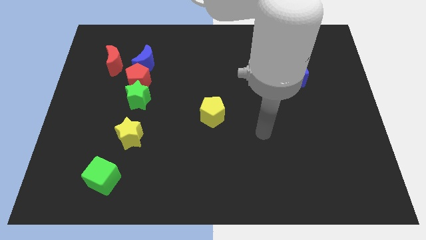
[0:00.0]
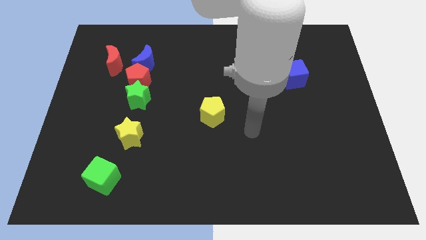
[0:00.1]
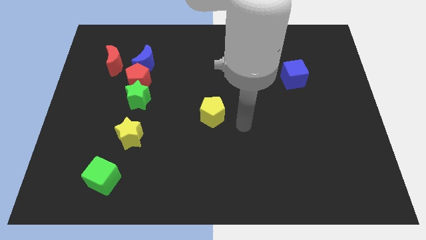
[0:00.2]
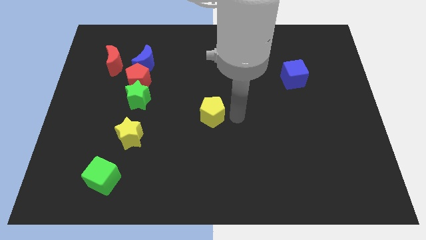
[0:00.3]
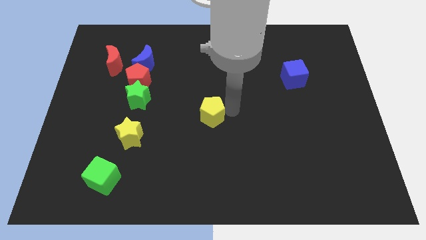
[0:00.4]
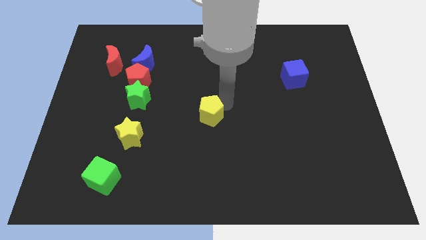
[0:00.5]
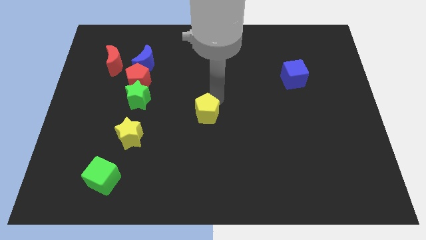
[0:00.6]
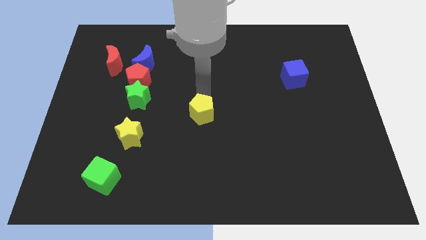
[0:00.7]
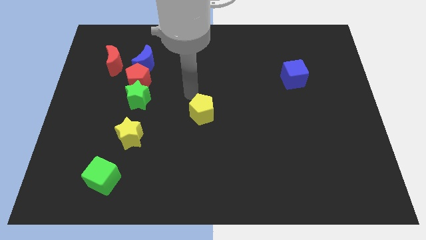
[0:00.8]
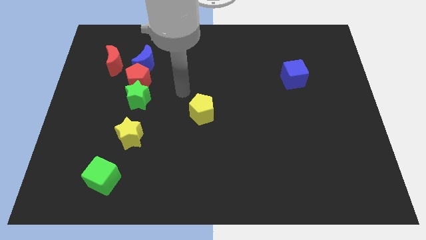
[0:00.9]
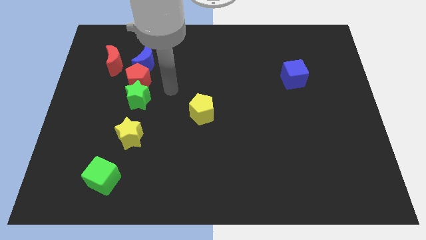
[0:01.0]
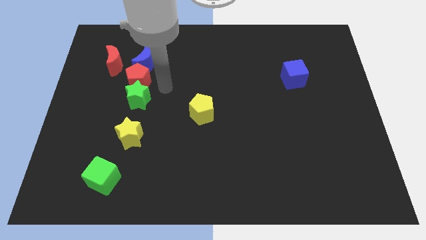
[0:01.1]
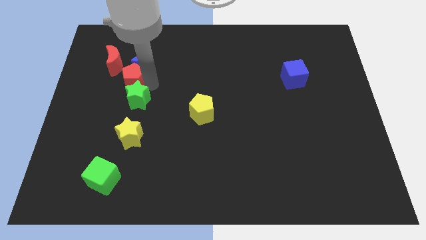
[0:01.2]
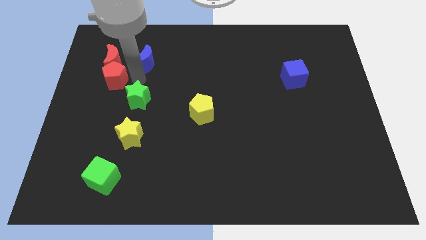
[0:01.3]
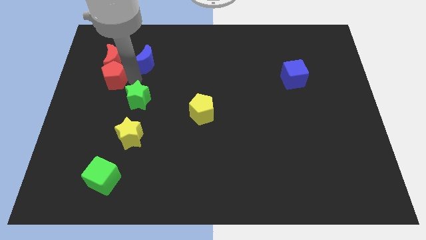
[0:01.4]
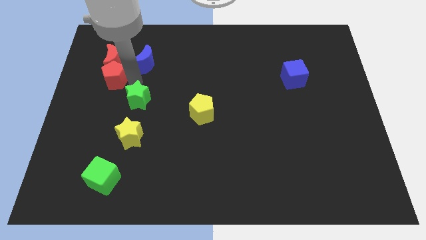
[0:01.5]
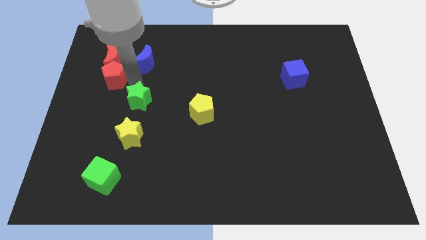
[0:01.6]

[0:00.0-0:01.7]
move the green star away from the red pentagon

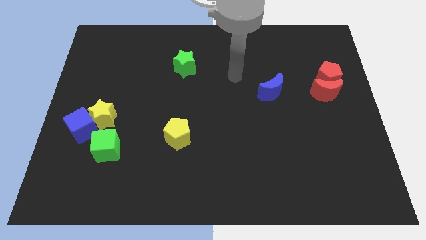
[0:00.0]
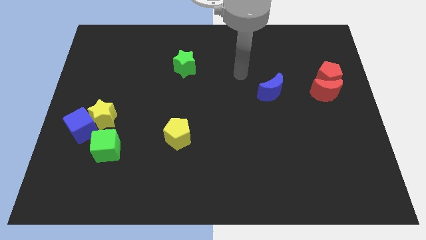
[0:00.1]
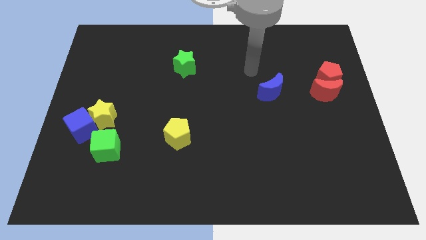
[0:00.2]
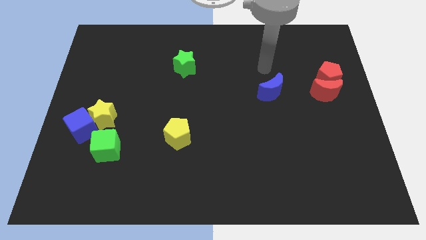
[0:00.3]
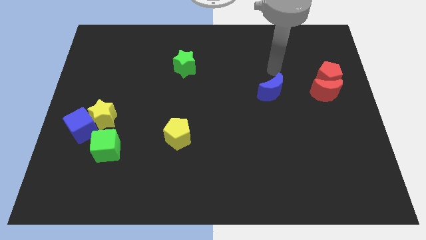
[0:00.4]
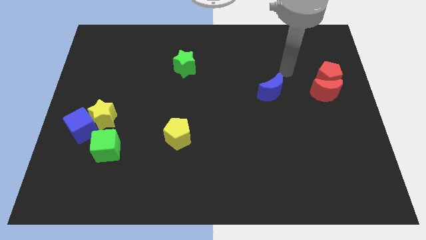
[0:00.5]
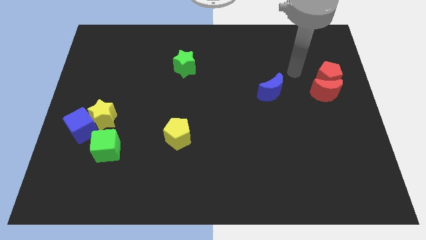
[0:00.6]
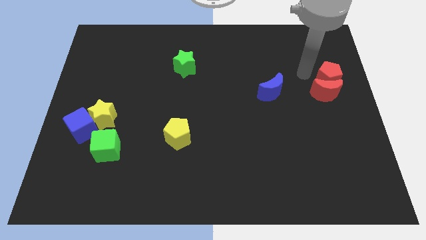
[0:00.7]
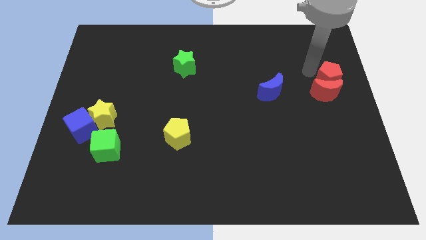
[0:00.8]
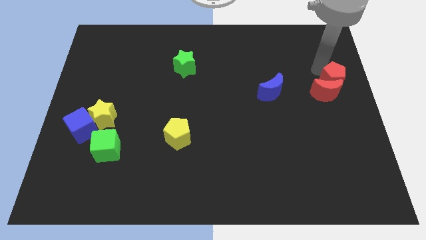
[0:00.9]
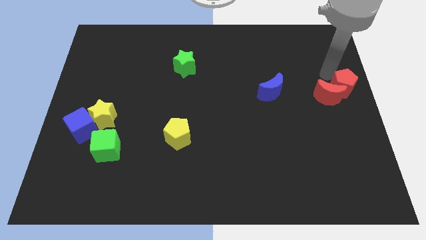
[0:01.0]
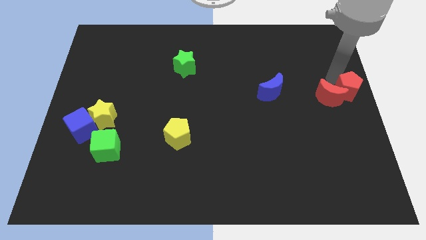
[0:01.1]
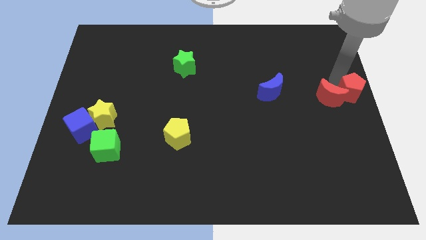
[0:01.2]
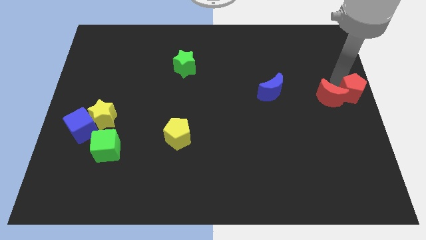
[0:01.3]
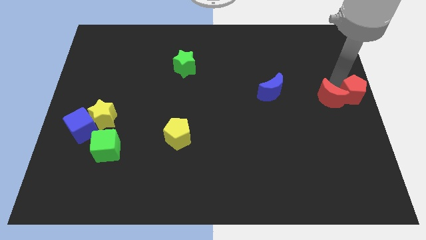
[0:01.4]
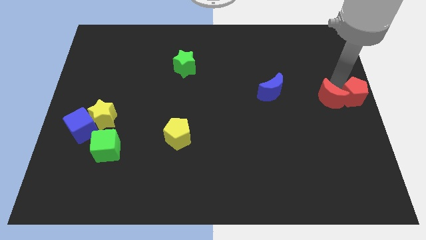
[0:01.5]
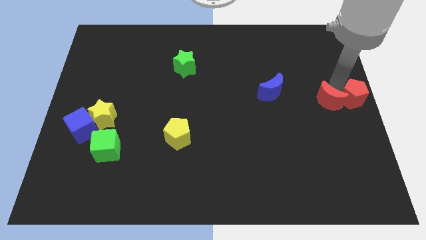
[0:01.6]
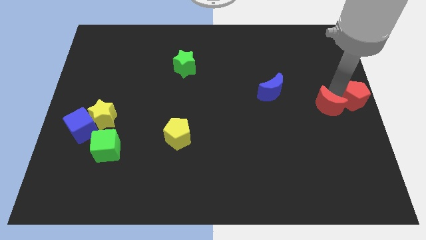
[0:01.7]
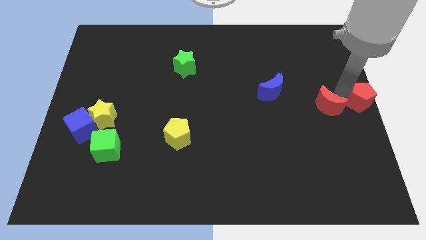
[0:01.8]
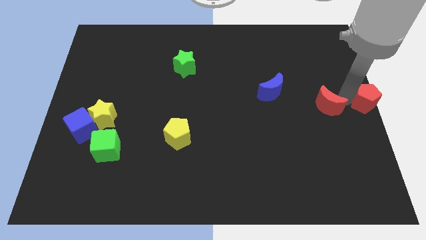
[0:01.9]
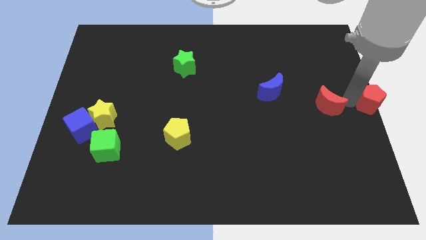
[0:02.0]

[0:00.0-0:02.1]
pull the red moon apart from the red pentagon

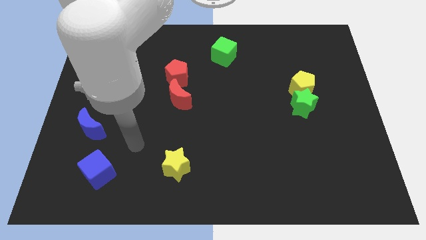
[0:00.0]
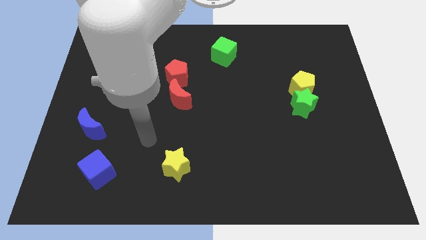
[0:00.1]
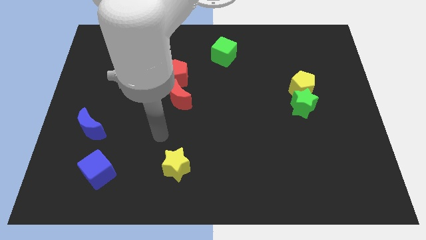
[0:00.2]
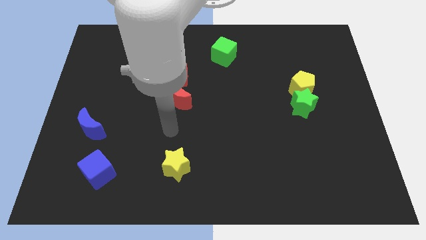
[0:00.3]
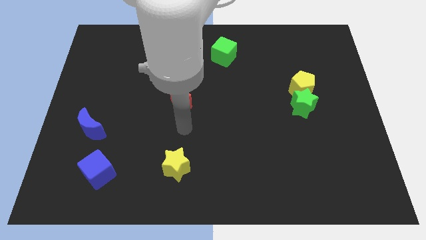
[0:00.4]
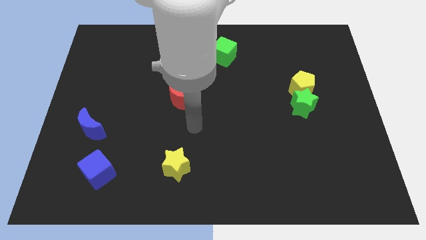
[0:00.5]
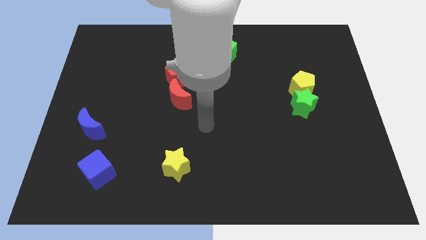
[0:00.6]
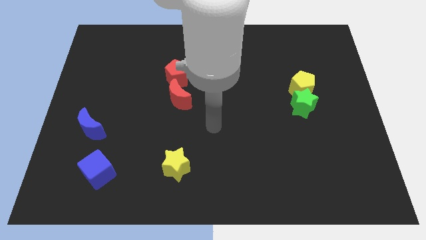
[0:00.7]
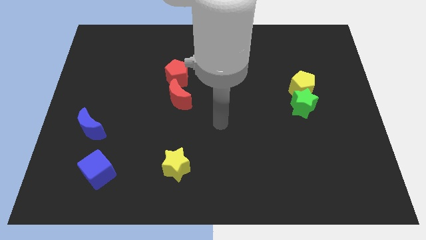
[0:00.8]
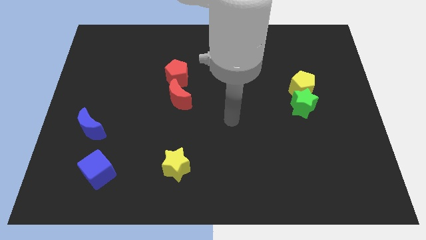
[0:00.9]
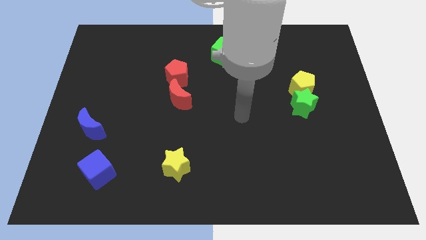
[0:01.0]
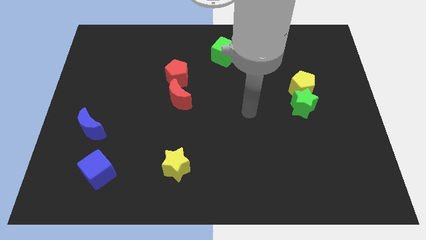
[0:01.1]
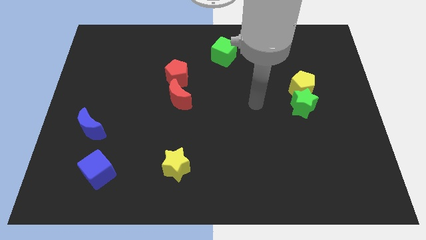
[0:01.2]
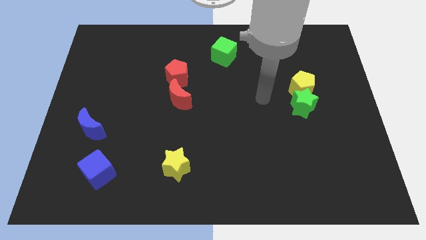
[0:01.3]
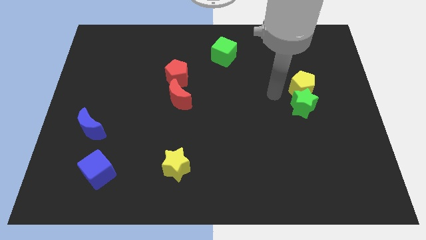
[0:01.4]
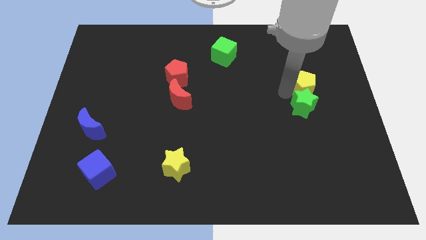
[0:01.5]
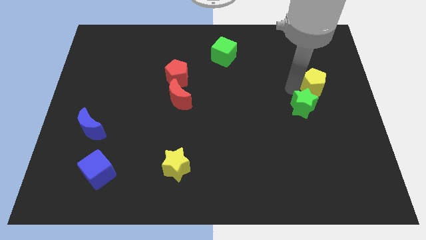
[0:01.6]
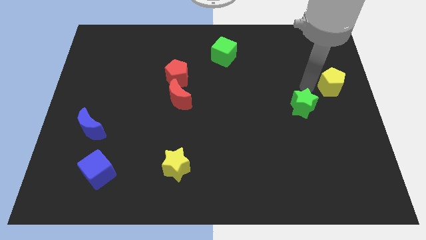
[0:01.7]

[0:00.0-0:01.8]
move the green star away from the yellow pentagon

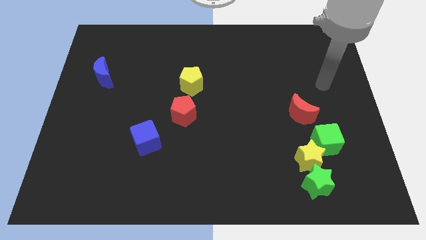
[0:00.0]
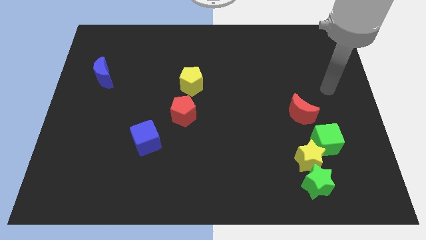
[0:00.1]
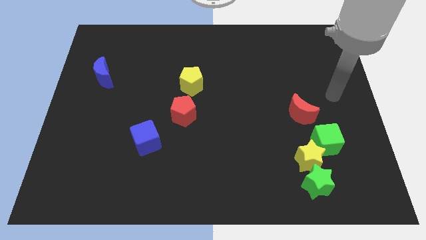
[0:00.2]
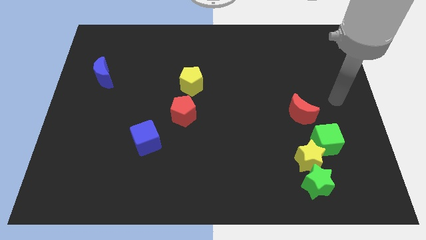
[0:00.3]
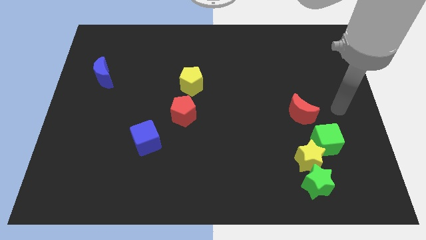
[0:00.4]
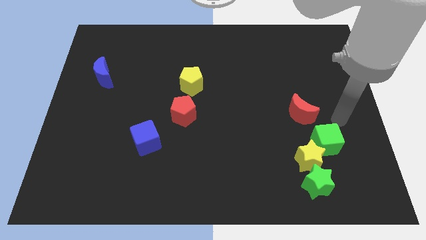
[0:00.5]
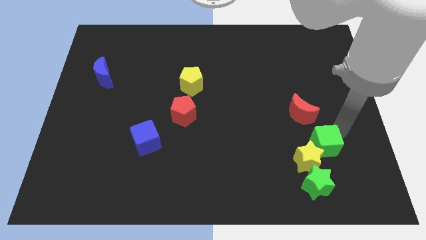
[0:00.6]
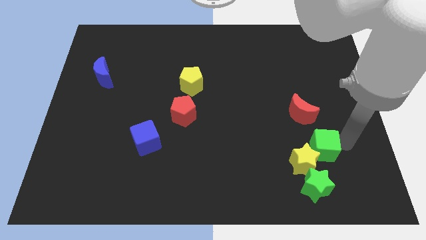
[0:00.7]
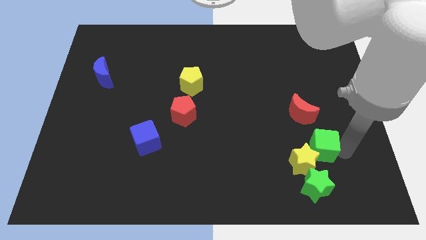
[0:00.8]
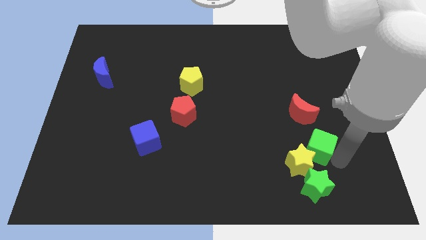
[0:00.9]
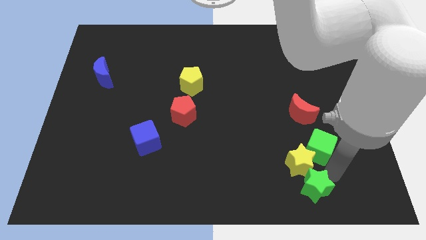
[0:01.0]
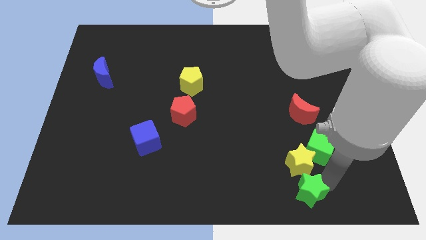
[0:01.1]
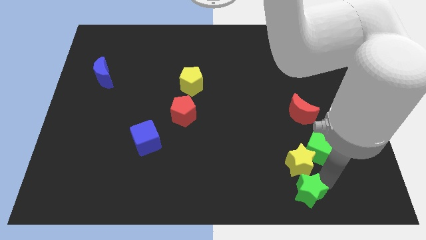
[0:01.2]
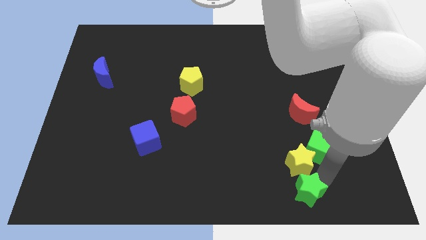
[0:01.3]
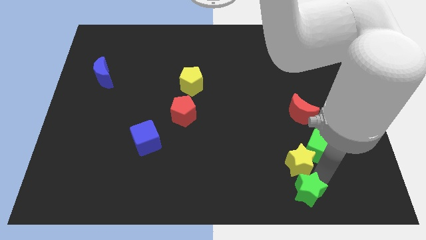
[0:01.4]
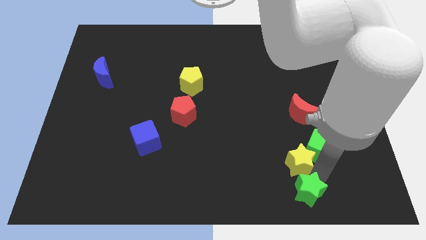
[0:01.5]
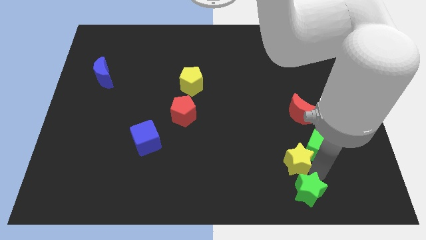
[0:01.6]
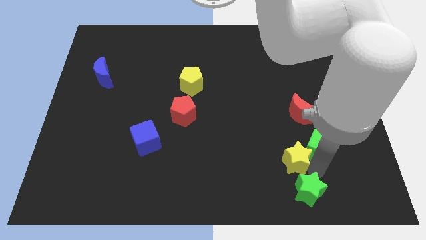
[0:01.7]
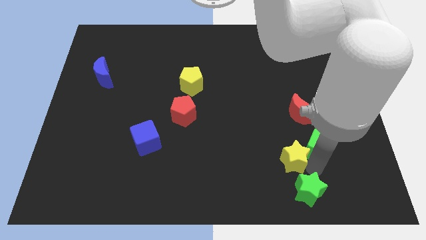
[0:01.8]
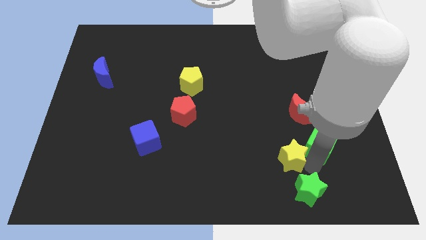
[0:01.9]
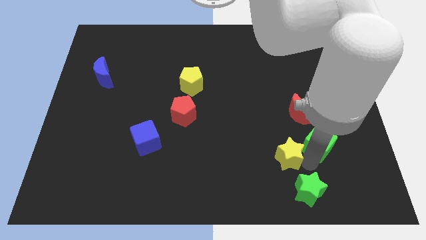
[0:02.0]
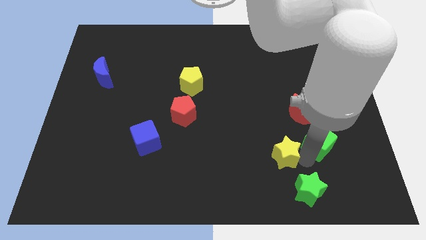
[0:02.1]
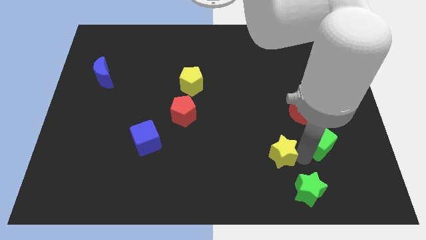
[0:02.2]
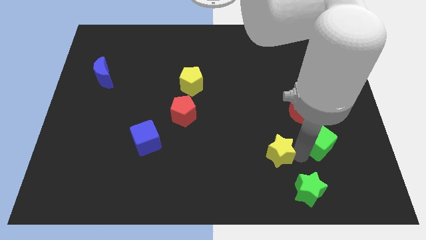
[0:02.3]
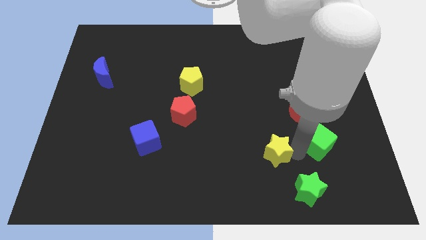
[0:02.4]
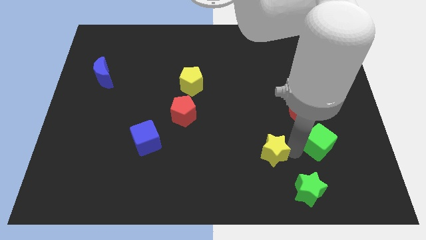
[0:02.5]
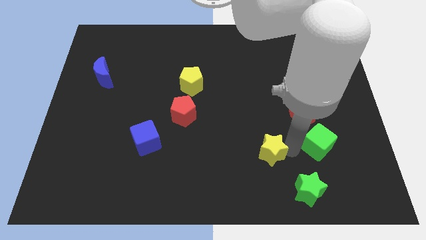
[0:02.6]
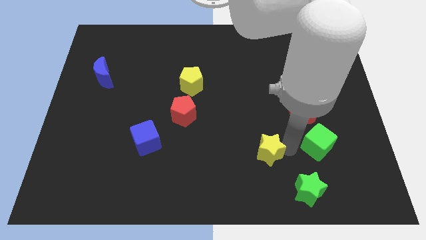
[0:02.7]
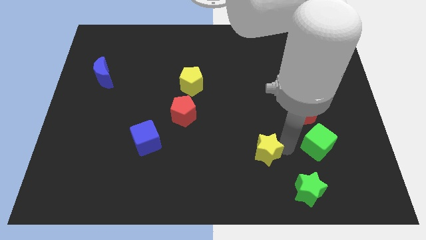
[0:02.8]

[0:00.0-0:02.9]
separate the yellow star from the green star and green cube

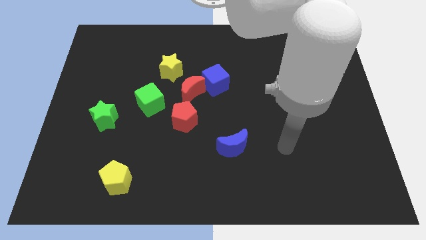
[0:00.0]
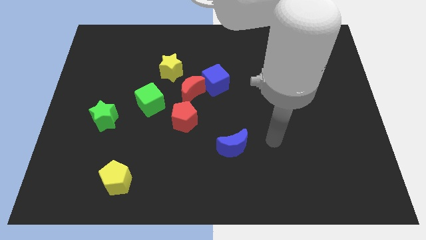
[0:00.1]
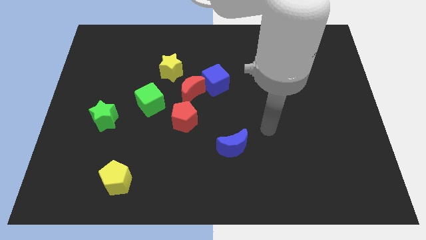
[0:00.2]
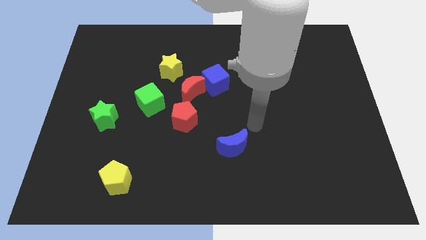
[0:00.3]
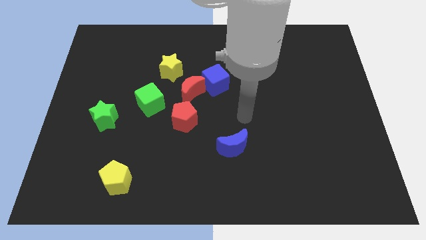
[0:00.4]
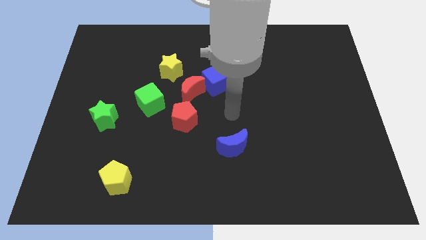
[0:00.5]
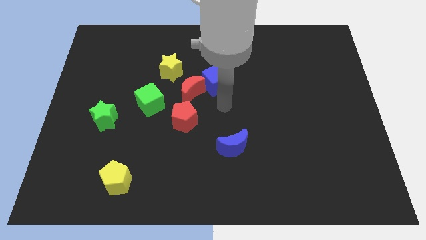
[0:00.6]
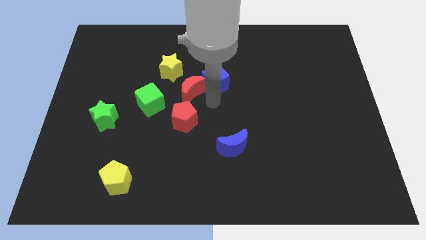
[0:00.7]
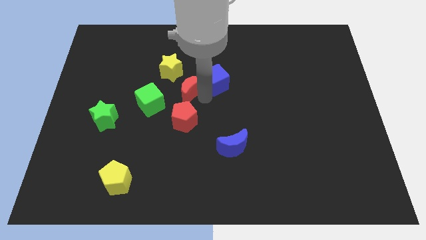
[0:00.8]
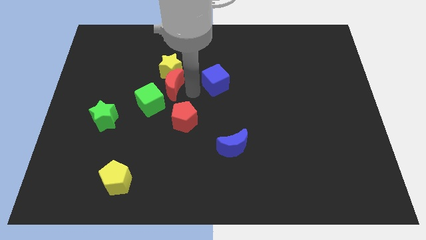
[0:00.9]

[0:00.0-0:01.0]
separate the blue cube from the red moon
